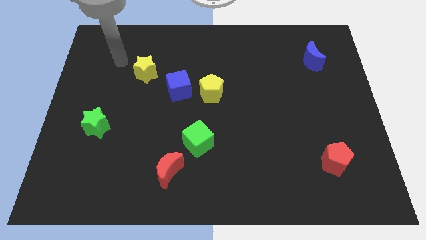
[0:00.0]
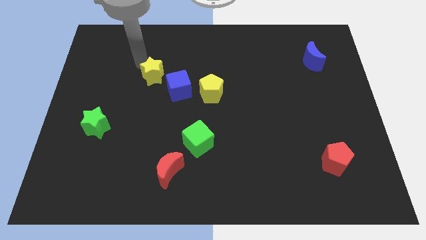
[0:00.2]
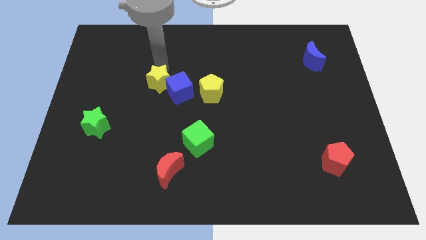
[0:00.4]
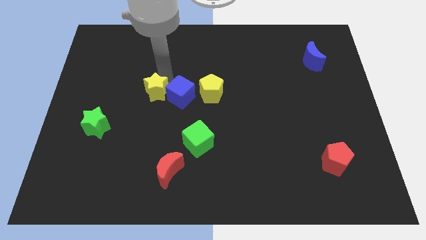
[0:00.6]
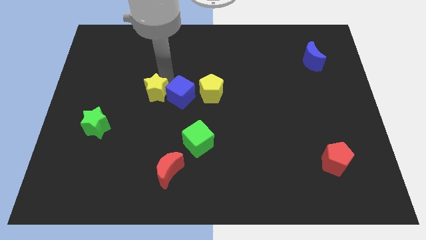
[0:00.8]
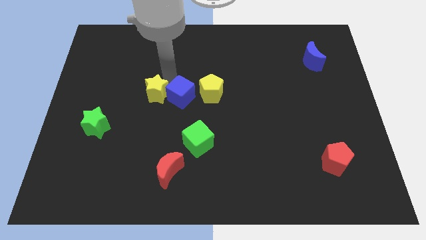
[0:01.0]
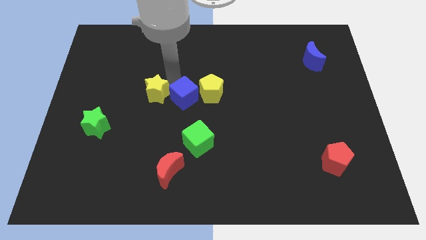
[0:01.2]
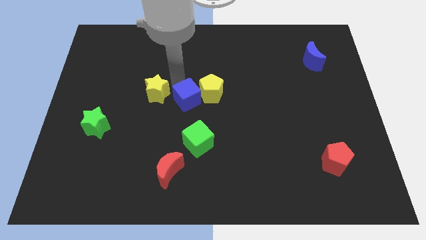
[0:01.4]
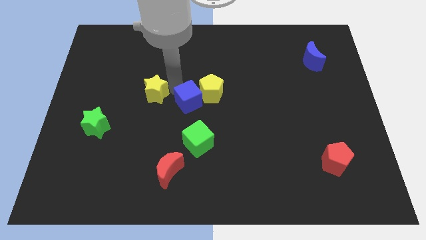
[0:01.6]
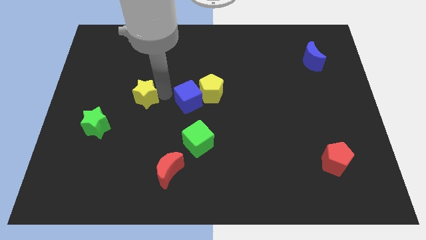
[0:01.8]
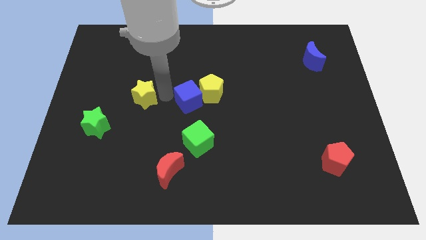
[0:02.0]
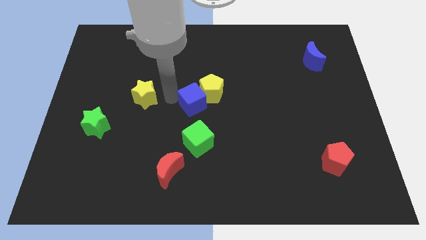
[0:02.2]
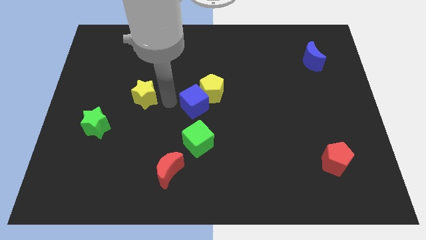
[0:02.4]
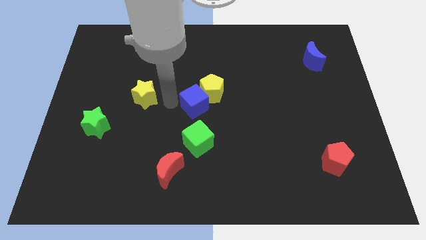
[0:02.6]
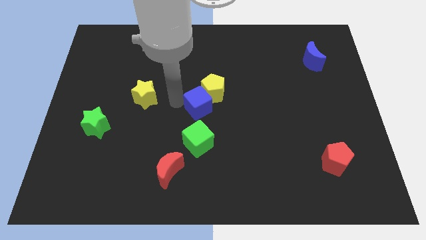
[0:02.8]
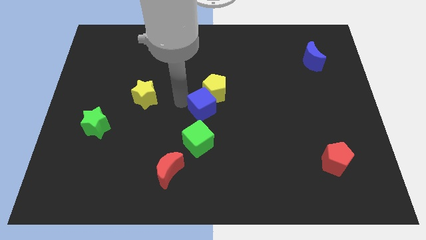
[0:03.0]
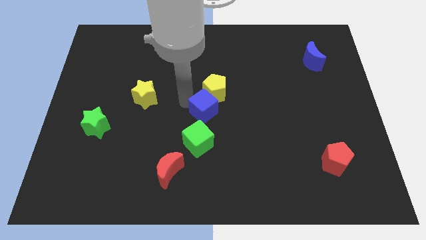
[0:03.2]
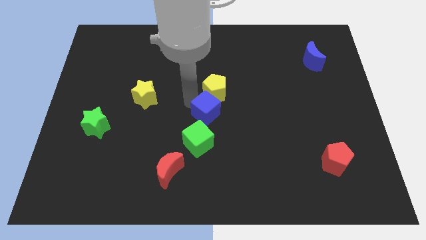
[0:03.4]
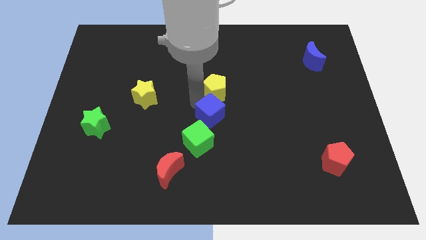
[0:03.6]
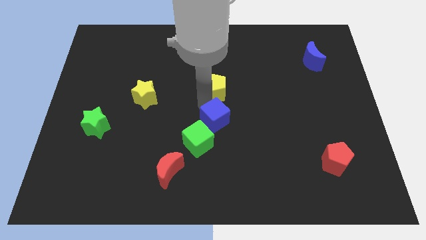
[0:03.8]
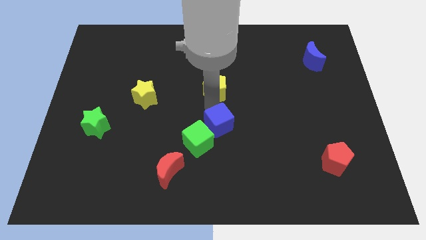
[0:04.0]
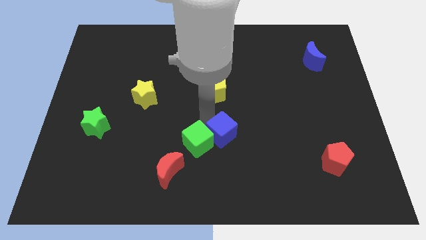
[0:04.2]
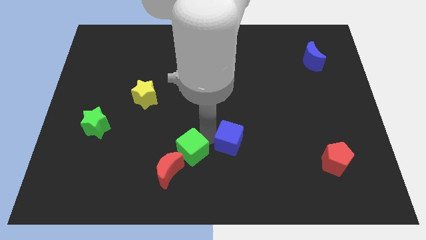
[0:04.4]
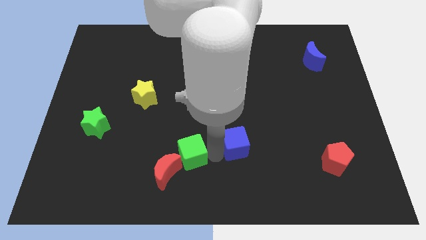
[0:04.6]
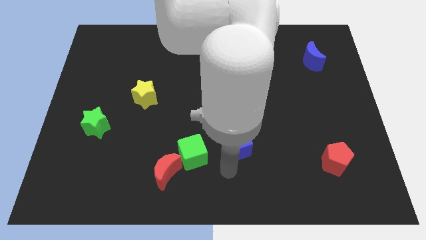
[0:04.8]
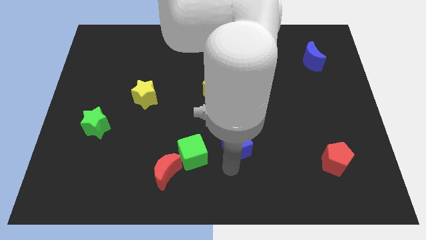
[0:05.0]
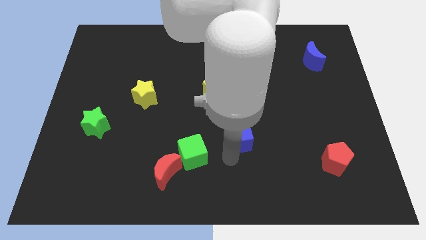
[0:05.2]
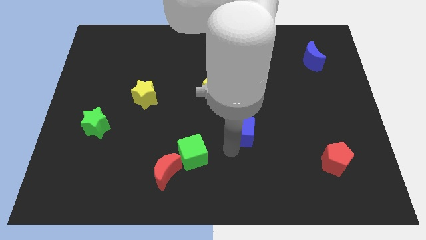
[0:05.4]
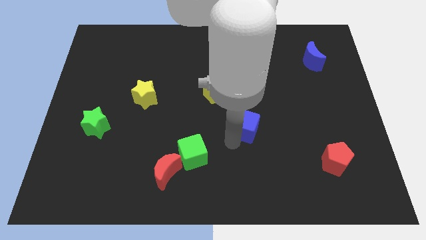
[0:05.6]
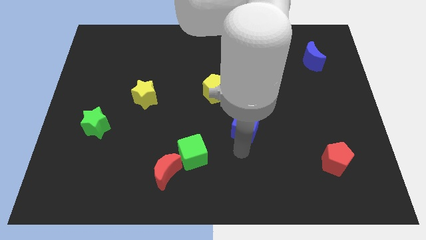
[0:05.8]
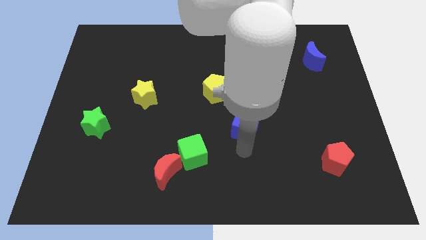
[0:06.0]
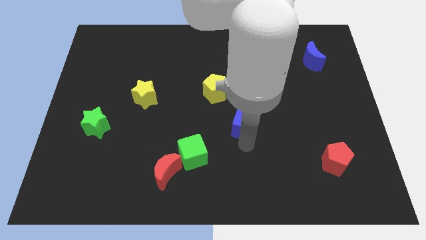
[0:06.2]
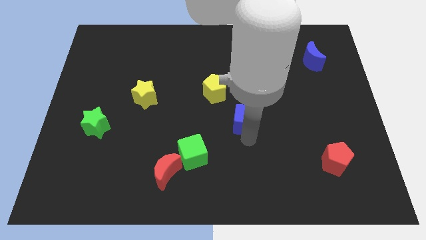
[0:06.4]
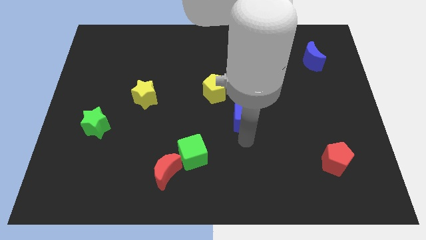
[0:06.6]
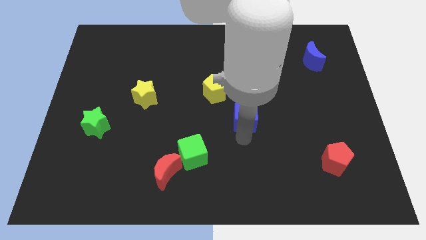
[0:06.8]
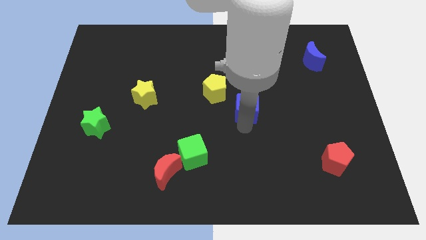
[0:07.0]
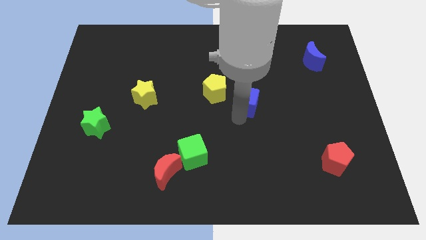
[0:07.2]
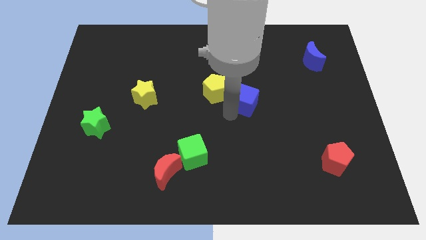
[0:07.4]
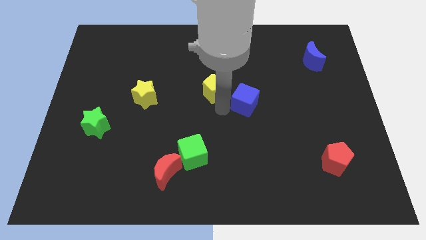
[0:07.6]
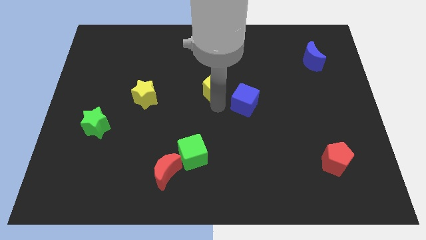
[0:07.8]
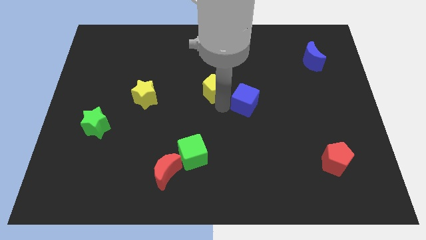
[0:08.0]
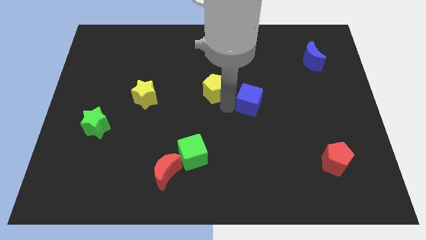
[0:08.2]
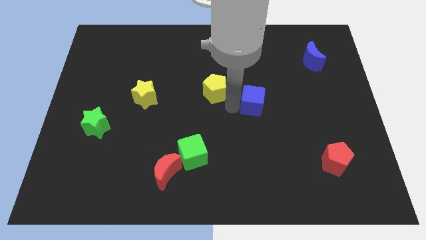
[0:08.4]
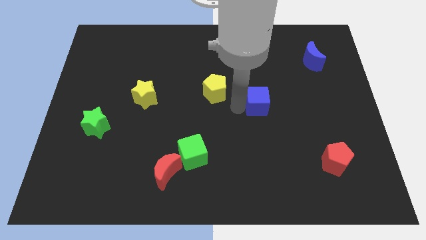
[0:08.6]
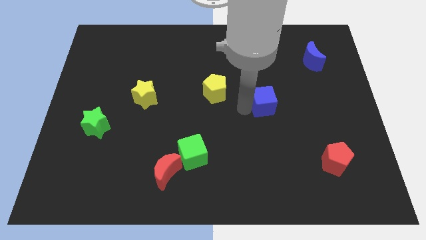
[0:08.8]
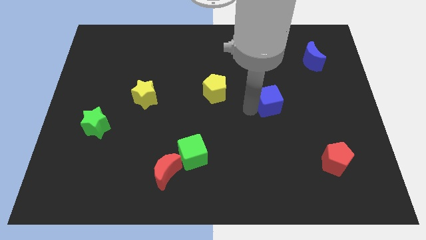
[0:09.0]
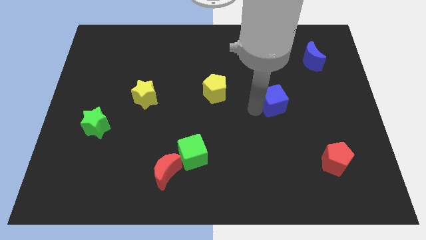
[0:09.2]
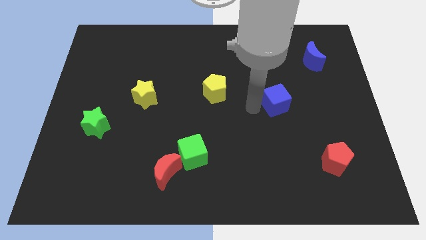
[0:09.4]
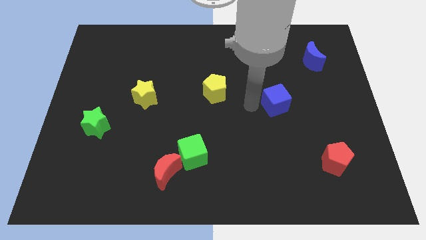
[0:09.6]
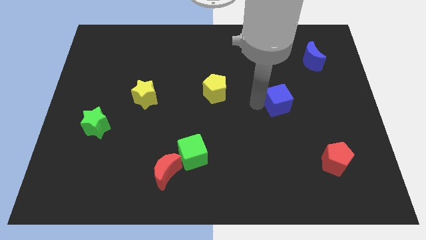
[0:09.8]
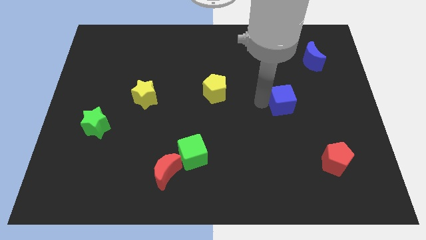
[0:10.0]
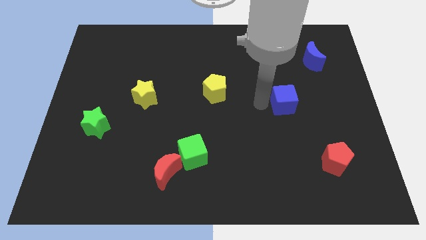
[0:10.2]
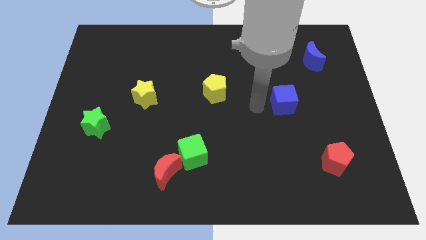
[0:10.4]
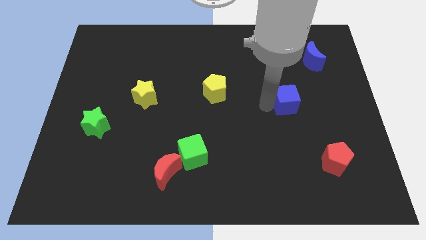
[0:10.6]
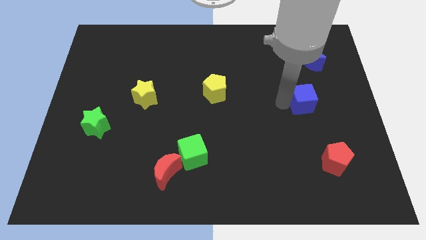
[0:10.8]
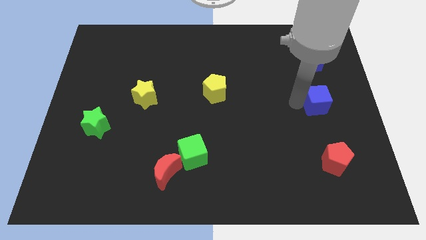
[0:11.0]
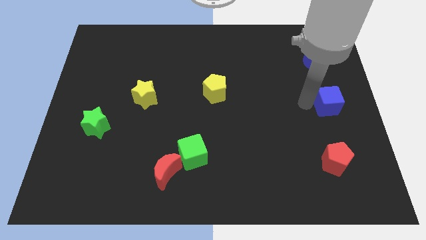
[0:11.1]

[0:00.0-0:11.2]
slide the blue cube to the right side

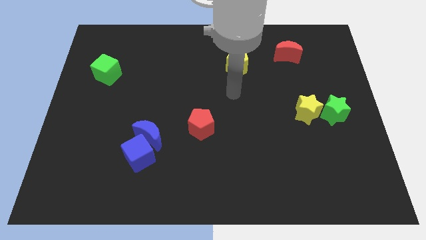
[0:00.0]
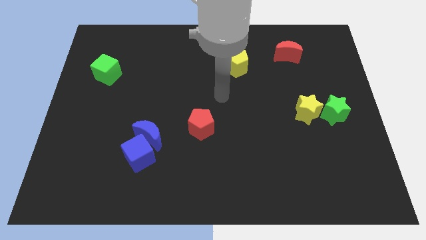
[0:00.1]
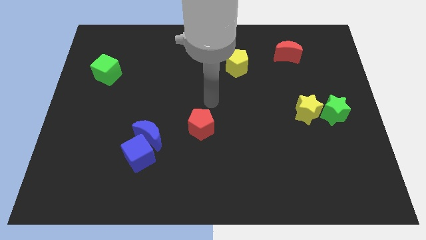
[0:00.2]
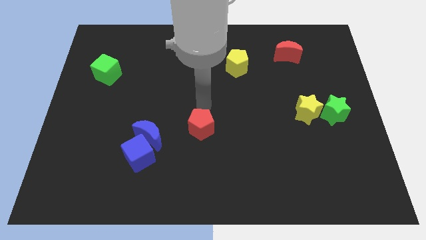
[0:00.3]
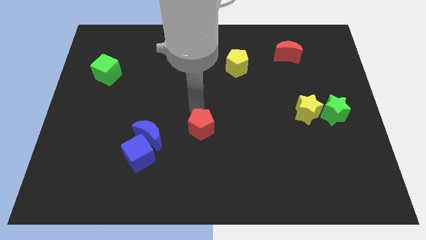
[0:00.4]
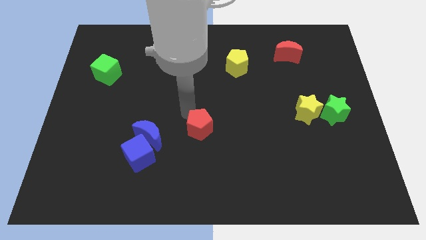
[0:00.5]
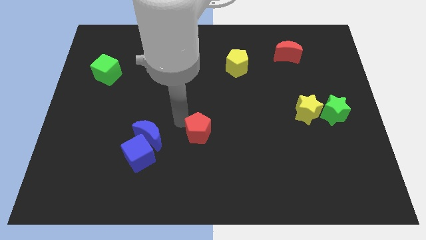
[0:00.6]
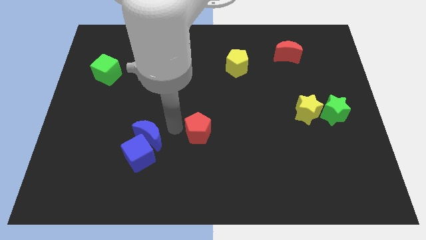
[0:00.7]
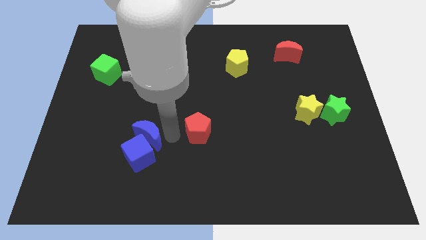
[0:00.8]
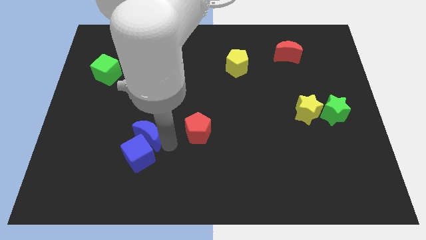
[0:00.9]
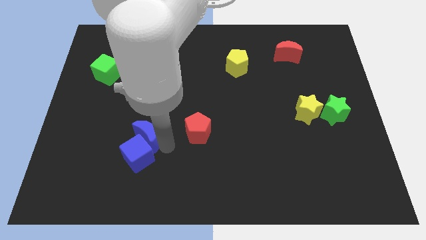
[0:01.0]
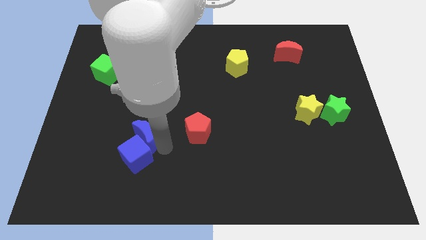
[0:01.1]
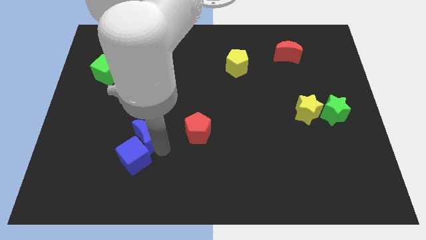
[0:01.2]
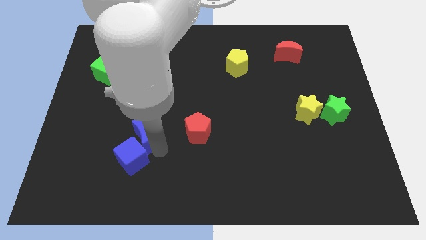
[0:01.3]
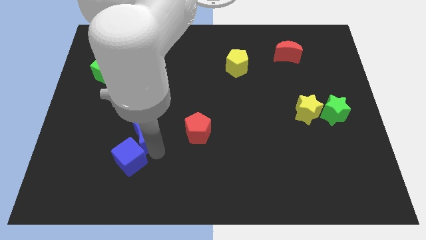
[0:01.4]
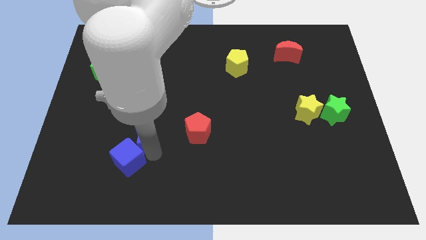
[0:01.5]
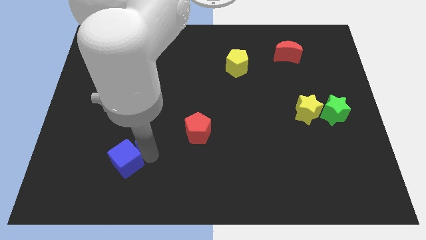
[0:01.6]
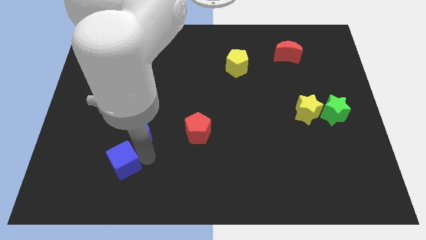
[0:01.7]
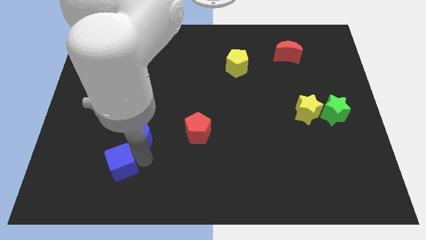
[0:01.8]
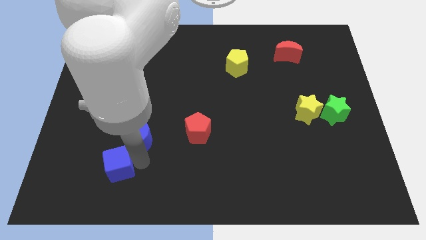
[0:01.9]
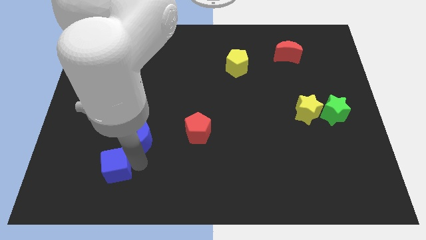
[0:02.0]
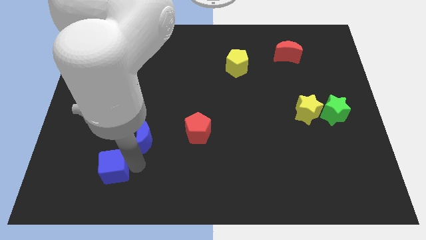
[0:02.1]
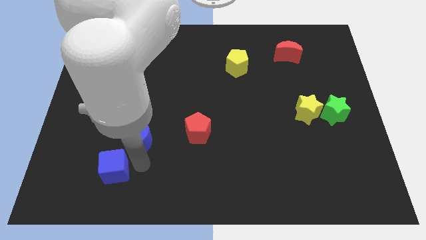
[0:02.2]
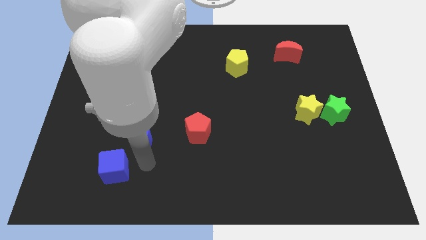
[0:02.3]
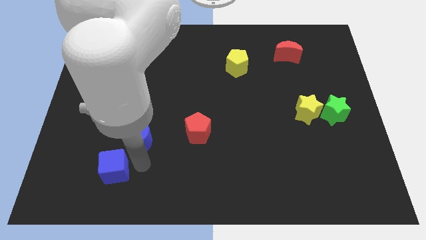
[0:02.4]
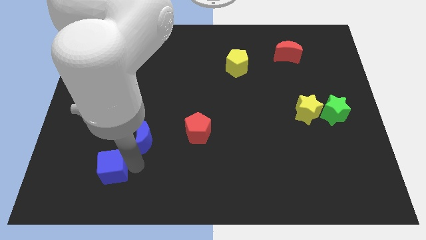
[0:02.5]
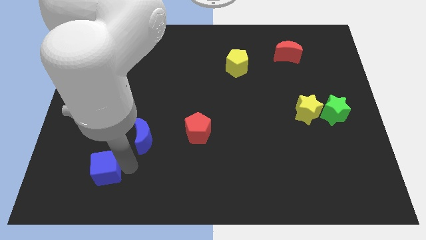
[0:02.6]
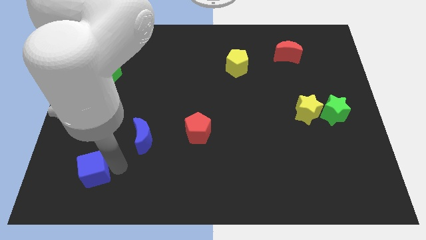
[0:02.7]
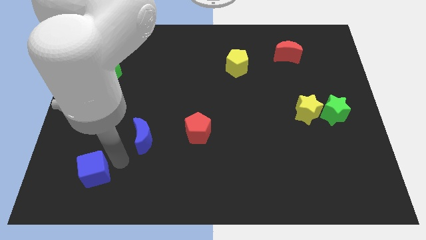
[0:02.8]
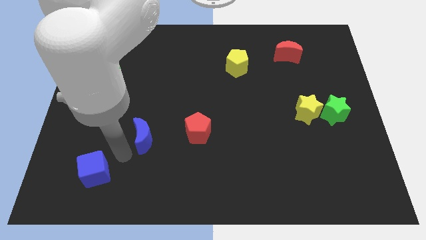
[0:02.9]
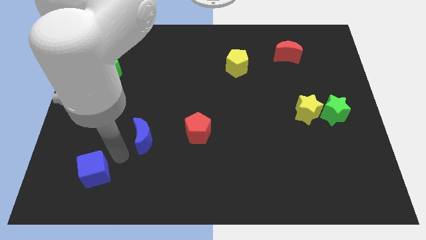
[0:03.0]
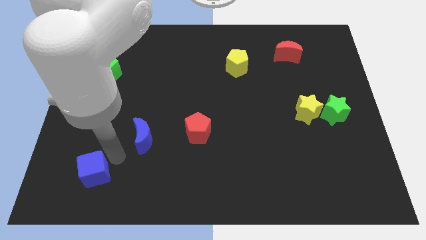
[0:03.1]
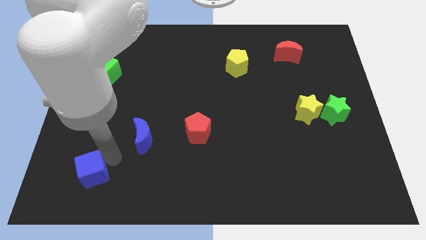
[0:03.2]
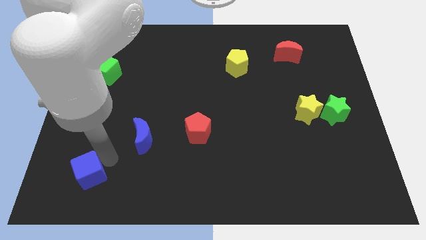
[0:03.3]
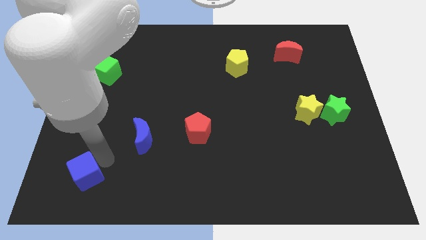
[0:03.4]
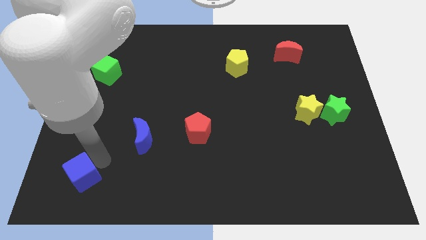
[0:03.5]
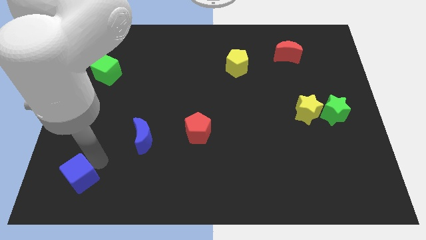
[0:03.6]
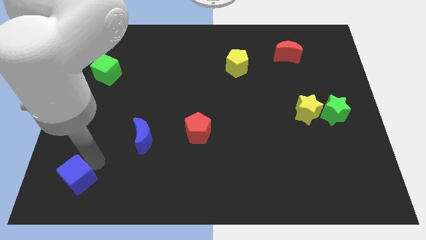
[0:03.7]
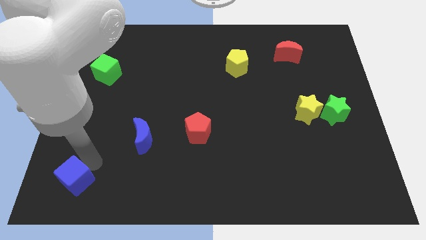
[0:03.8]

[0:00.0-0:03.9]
put the blue cube to the bottom left corner
